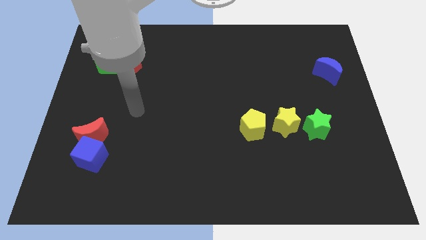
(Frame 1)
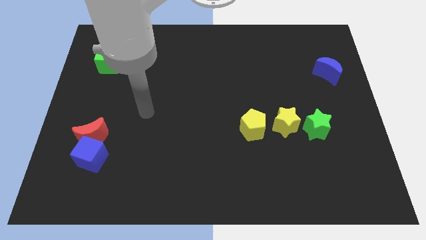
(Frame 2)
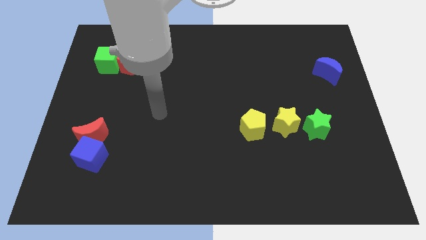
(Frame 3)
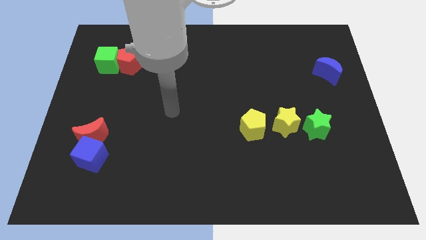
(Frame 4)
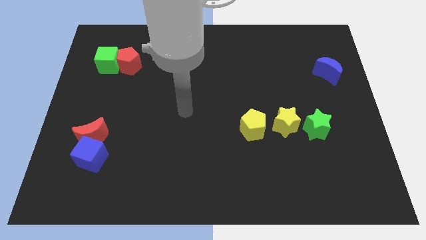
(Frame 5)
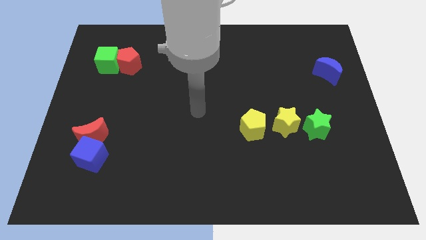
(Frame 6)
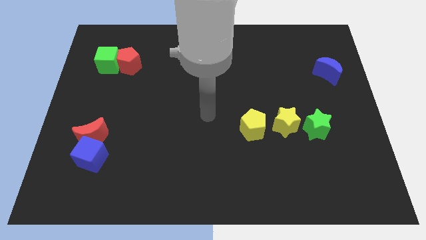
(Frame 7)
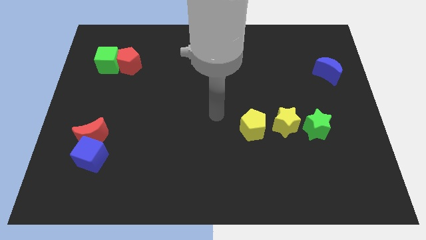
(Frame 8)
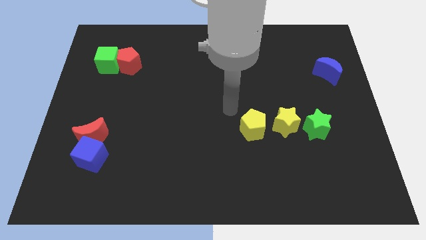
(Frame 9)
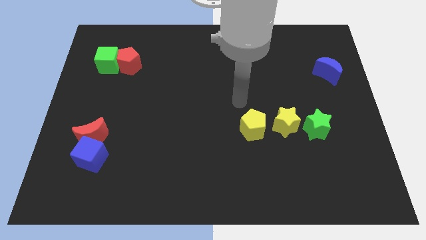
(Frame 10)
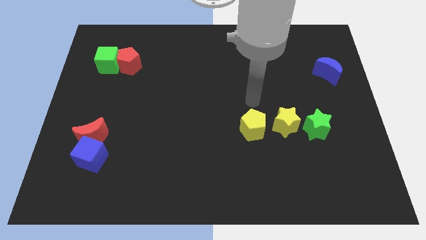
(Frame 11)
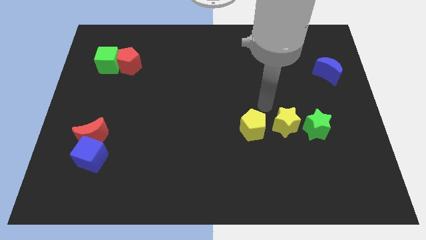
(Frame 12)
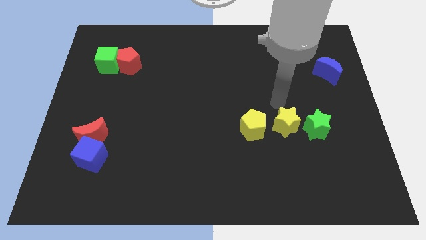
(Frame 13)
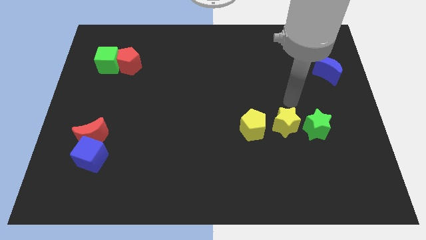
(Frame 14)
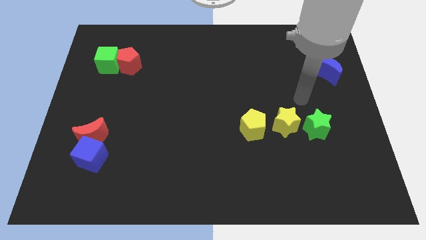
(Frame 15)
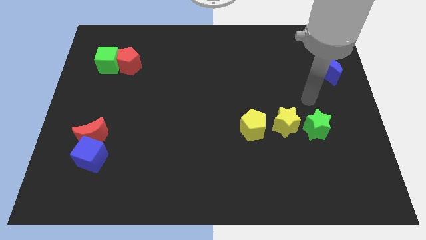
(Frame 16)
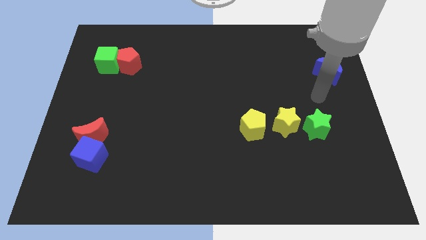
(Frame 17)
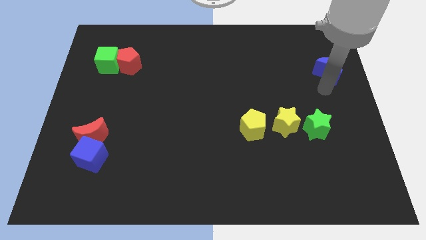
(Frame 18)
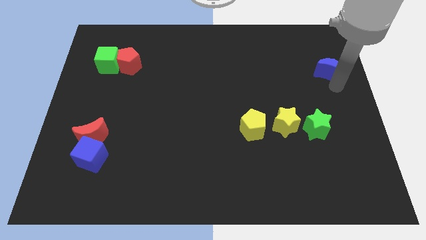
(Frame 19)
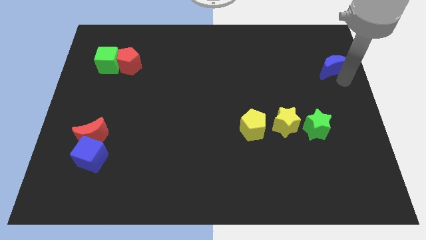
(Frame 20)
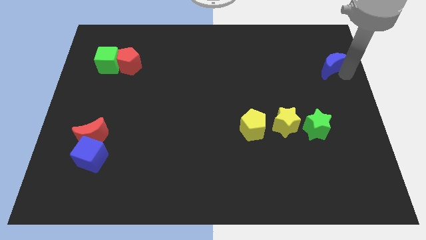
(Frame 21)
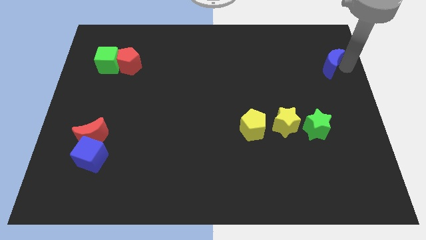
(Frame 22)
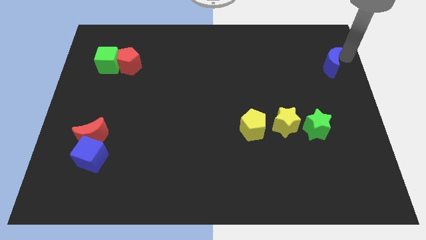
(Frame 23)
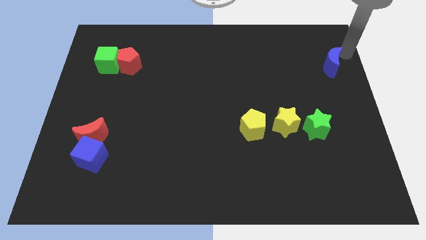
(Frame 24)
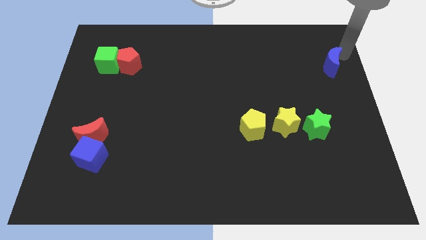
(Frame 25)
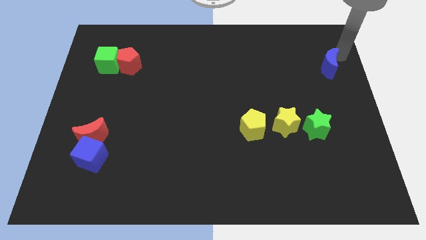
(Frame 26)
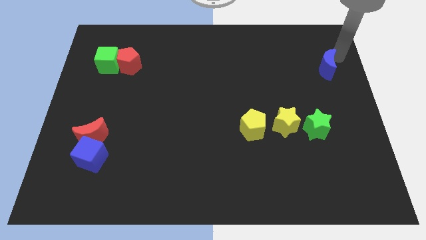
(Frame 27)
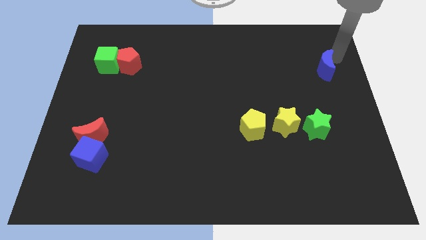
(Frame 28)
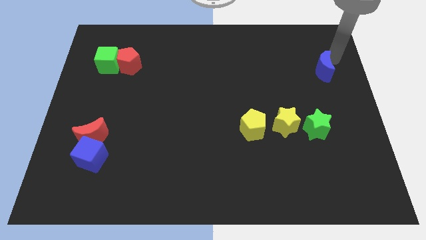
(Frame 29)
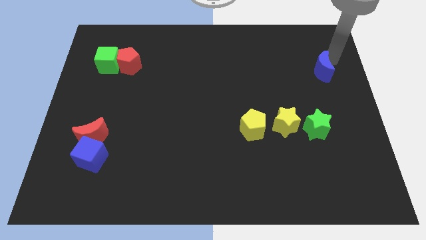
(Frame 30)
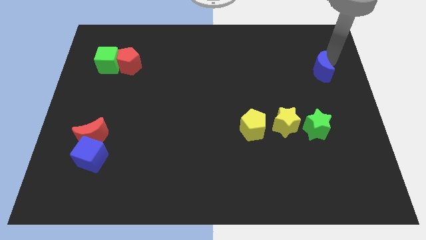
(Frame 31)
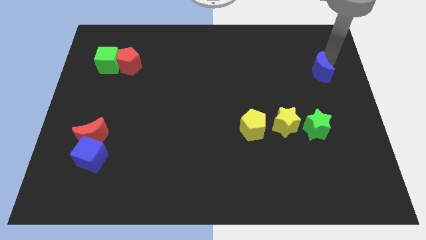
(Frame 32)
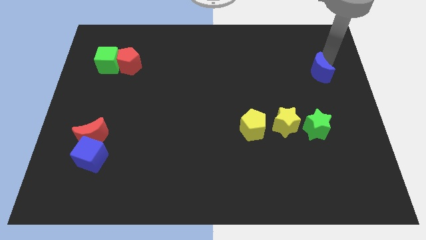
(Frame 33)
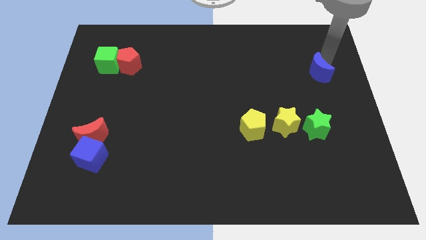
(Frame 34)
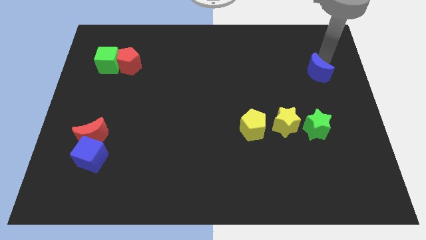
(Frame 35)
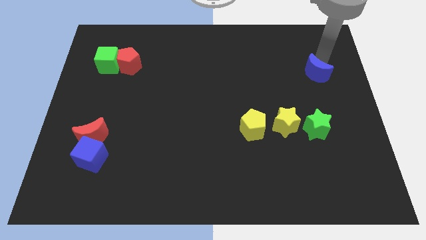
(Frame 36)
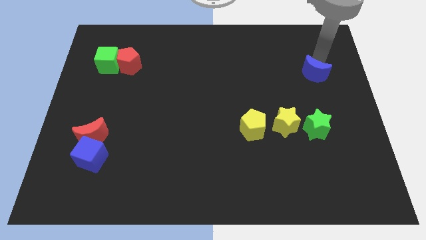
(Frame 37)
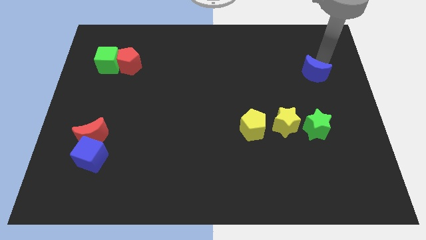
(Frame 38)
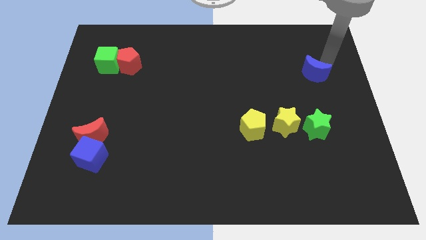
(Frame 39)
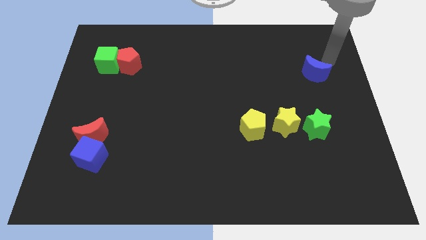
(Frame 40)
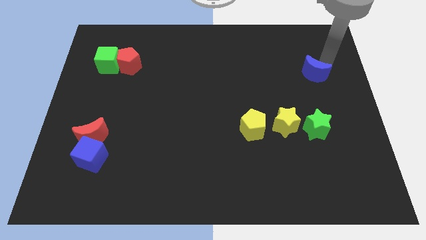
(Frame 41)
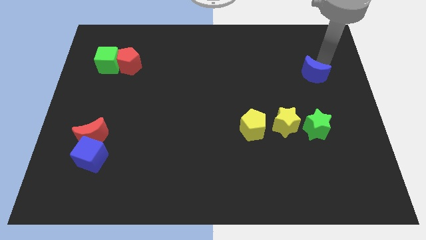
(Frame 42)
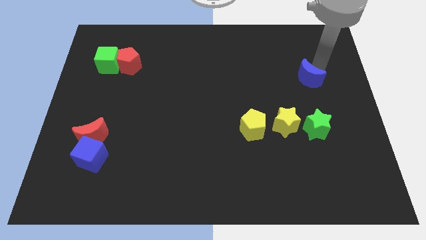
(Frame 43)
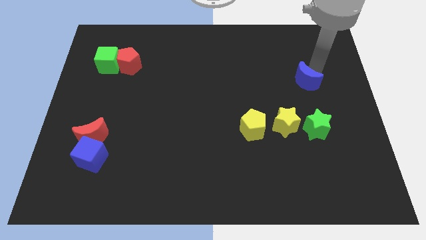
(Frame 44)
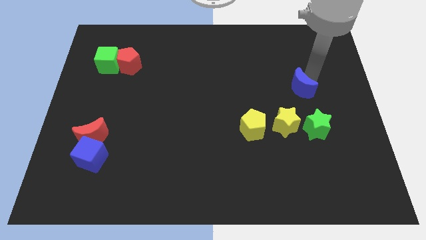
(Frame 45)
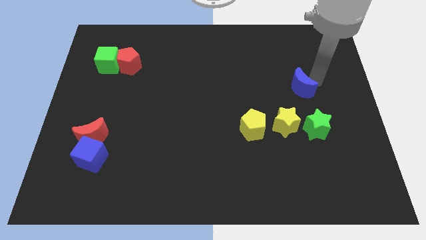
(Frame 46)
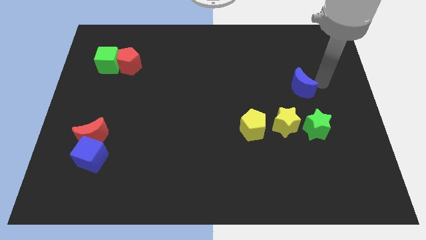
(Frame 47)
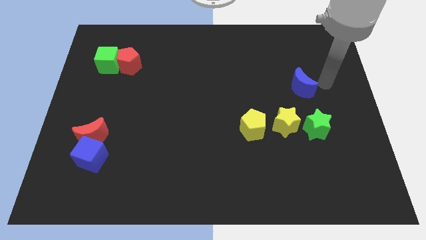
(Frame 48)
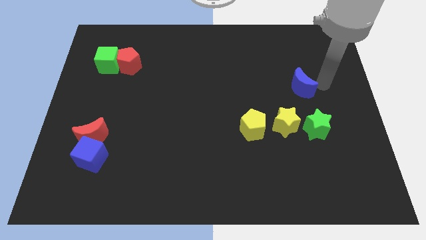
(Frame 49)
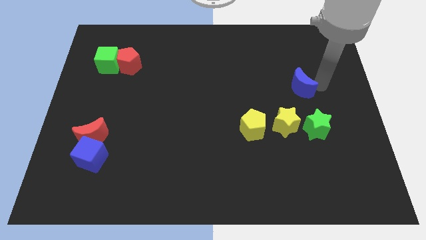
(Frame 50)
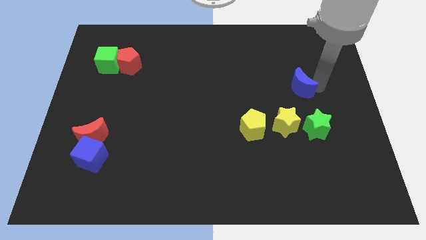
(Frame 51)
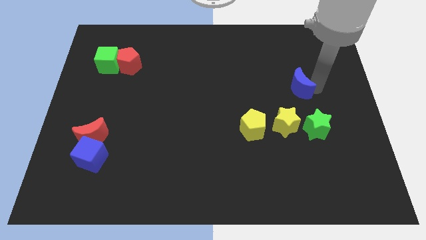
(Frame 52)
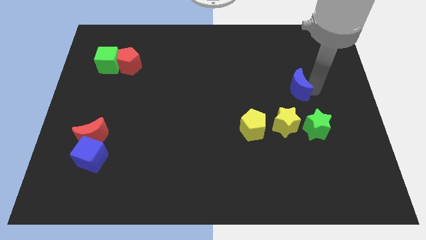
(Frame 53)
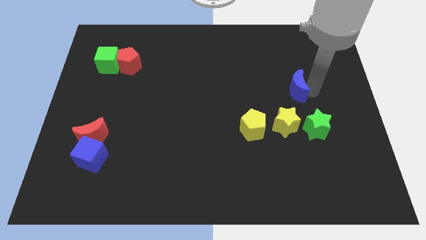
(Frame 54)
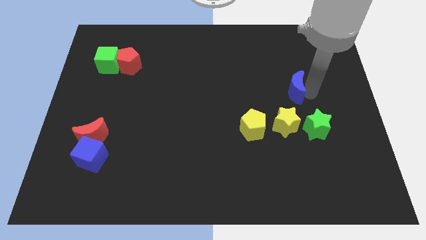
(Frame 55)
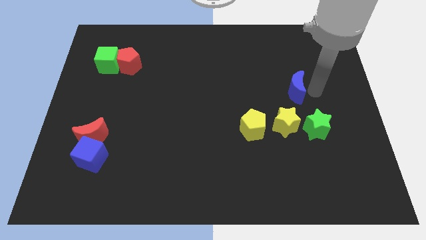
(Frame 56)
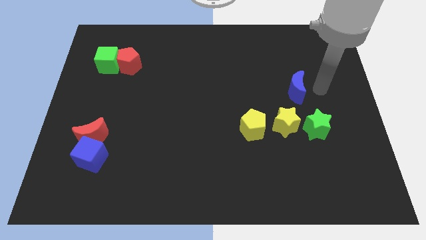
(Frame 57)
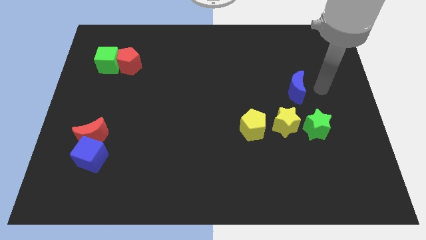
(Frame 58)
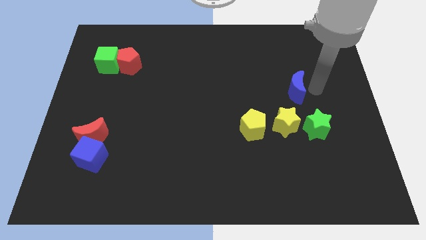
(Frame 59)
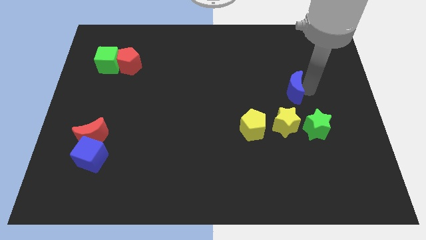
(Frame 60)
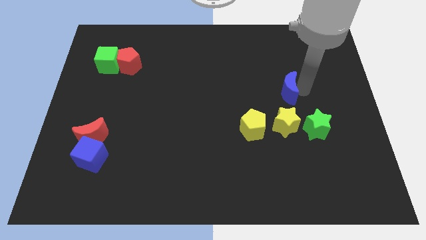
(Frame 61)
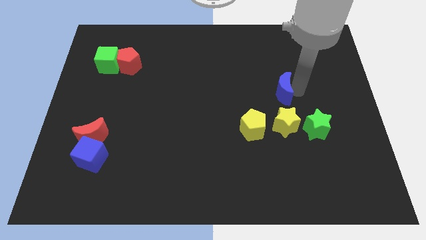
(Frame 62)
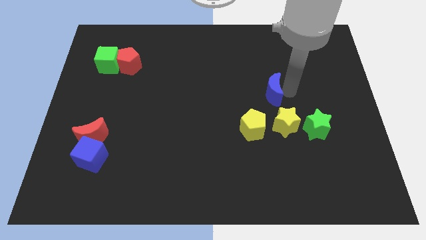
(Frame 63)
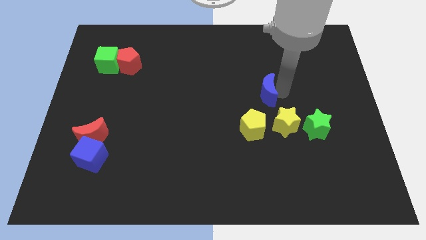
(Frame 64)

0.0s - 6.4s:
slide the blue moon above the yellow pentagon
